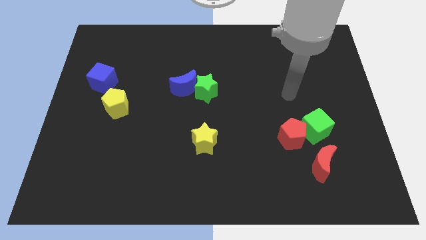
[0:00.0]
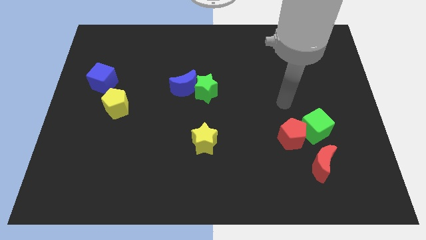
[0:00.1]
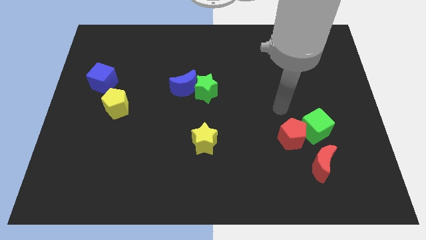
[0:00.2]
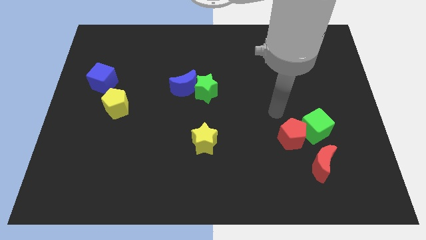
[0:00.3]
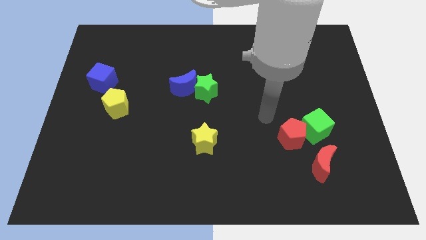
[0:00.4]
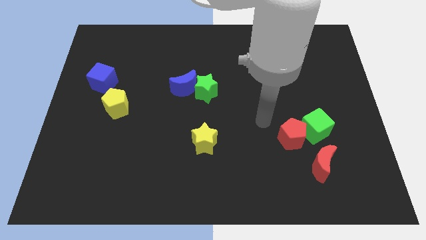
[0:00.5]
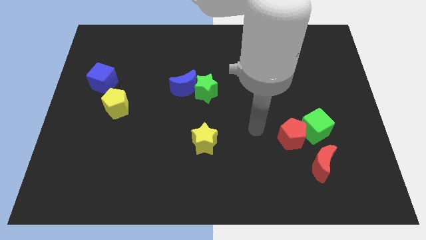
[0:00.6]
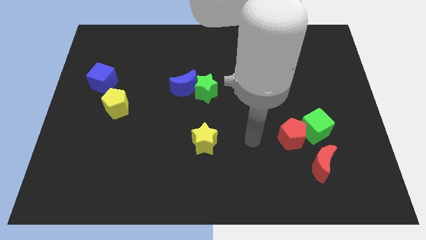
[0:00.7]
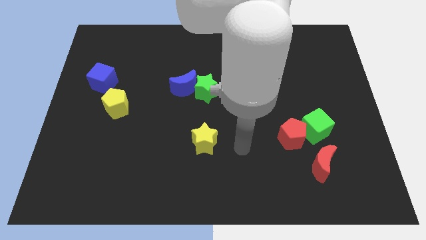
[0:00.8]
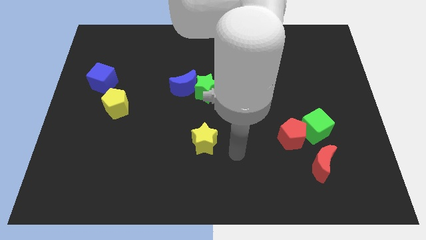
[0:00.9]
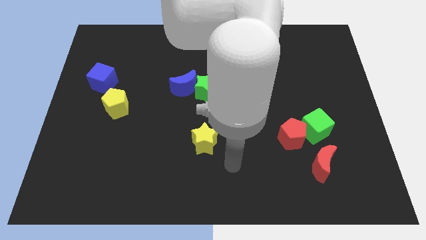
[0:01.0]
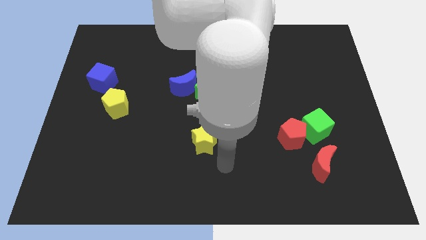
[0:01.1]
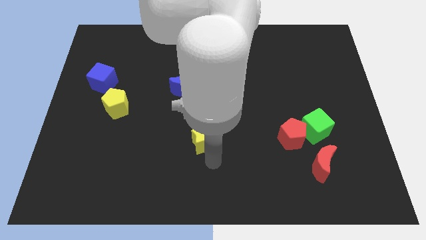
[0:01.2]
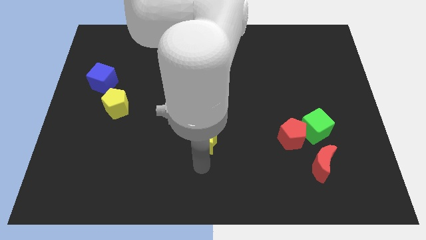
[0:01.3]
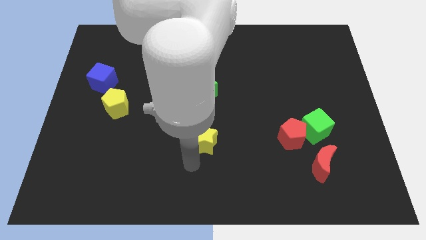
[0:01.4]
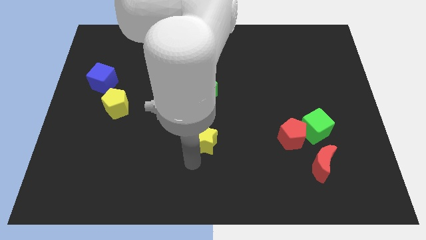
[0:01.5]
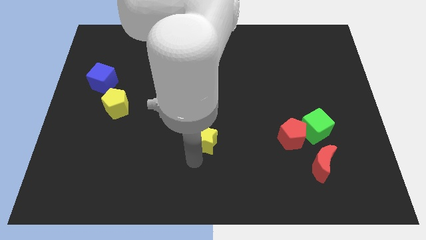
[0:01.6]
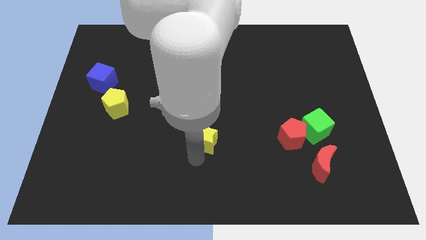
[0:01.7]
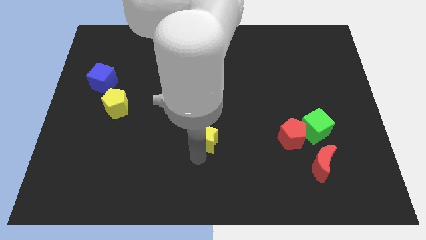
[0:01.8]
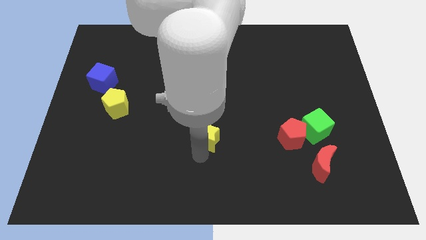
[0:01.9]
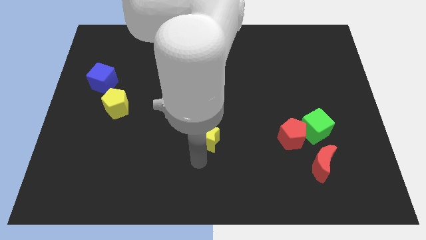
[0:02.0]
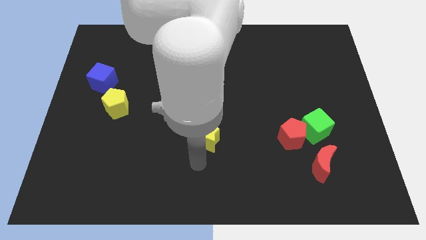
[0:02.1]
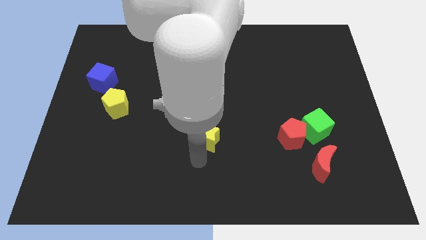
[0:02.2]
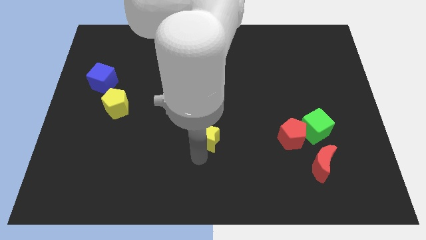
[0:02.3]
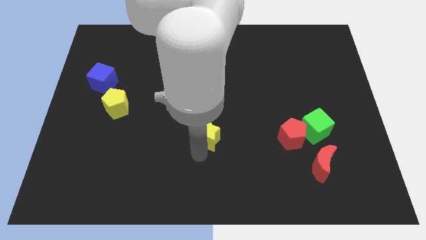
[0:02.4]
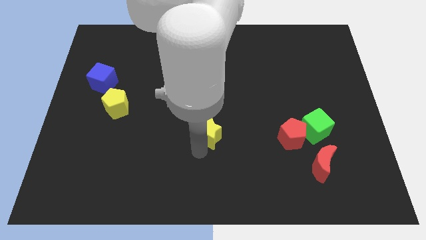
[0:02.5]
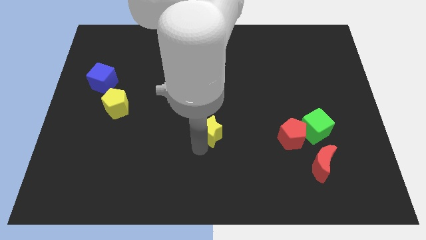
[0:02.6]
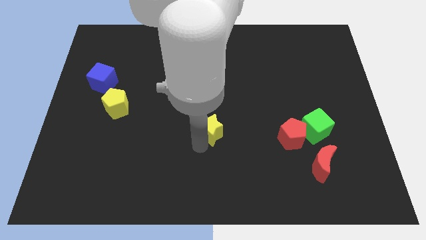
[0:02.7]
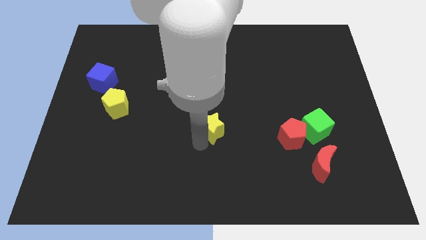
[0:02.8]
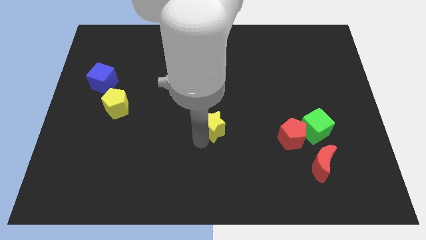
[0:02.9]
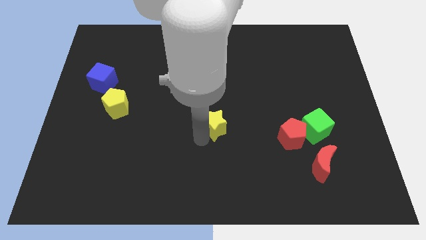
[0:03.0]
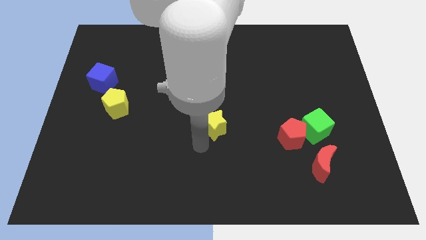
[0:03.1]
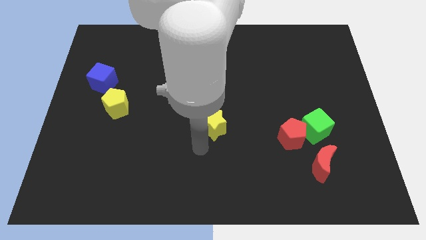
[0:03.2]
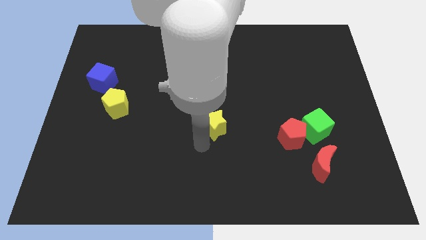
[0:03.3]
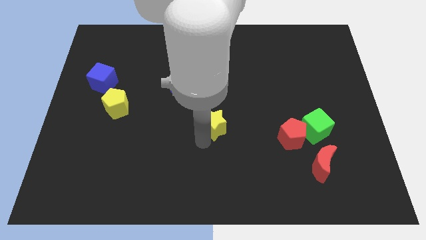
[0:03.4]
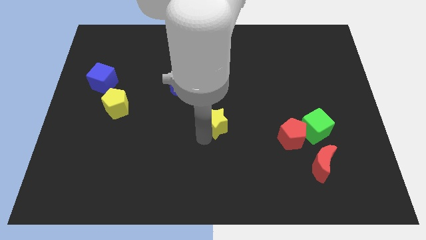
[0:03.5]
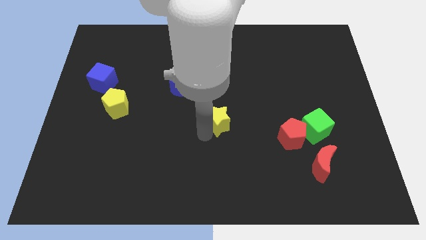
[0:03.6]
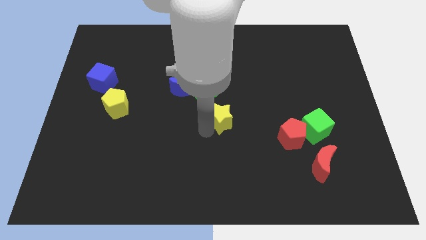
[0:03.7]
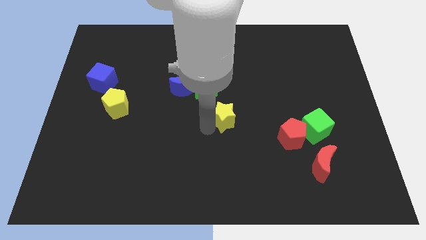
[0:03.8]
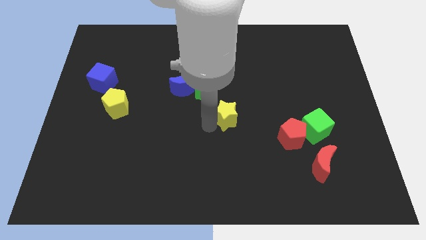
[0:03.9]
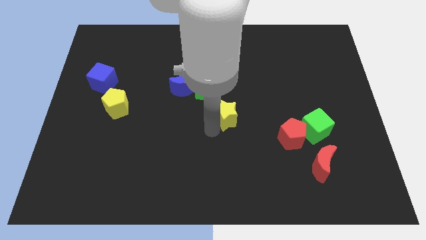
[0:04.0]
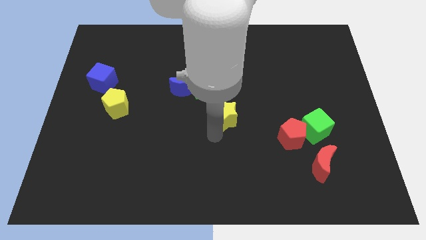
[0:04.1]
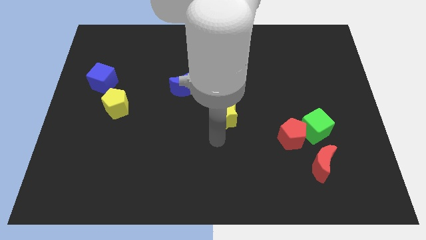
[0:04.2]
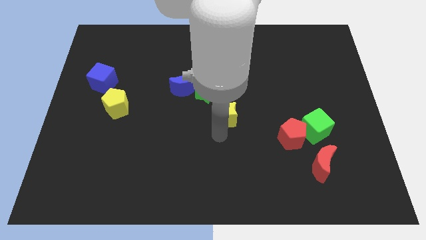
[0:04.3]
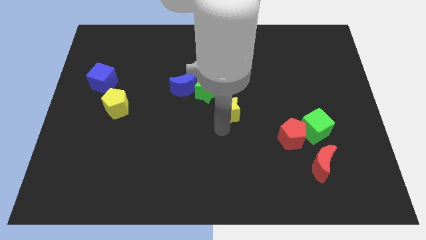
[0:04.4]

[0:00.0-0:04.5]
push the yellow star somewhat upwards

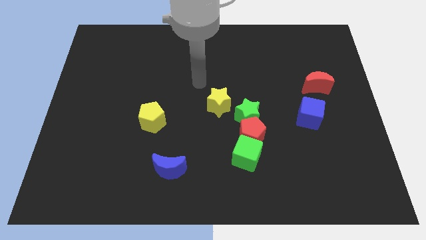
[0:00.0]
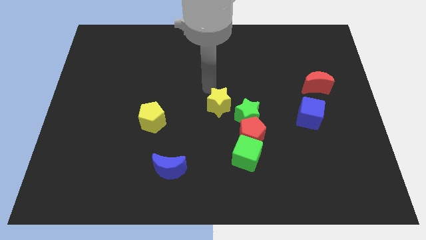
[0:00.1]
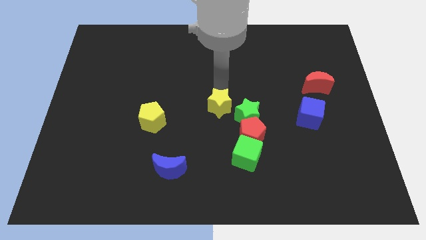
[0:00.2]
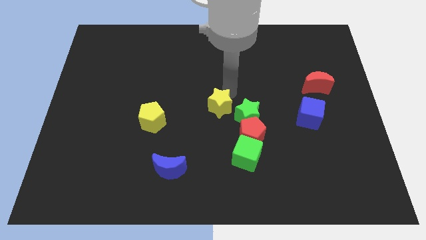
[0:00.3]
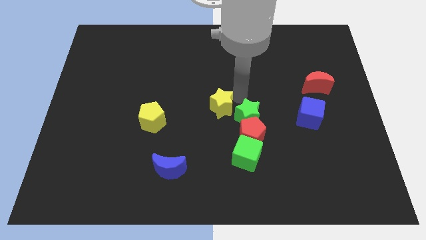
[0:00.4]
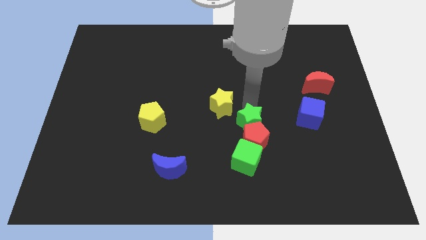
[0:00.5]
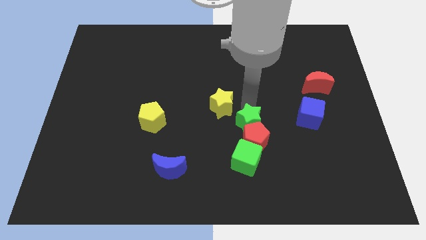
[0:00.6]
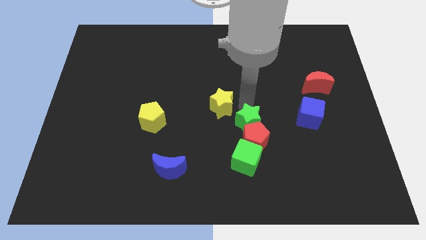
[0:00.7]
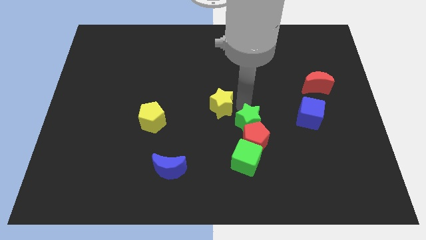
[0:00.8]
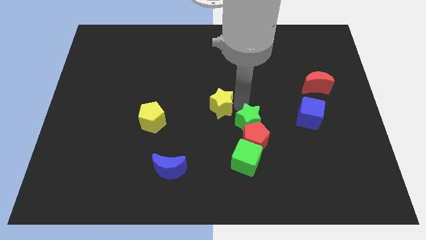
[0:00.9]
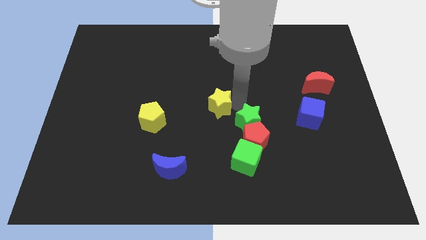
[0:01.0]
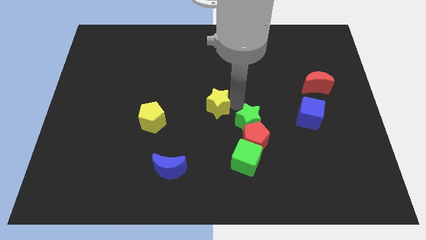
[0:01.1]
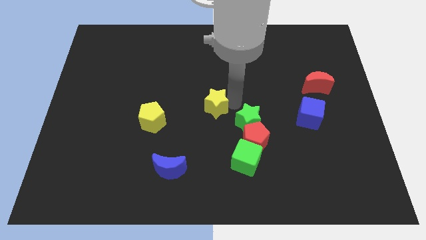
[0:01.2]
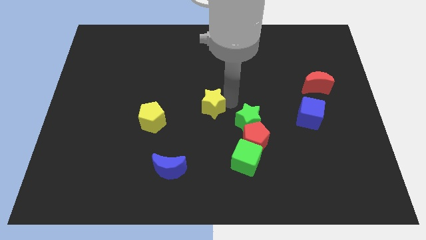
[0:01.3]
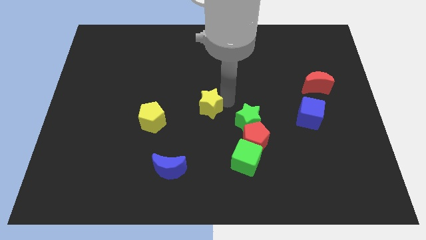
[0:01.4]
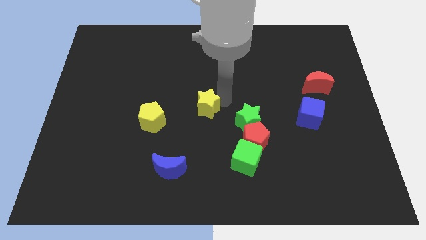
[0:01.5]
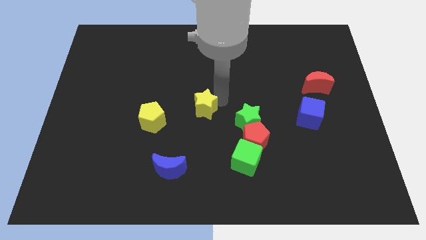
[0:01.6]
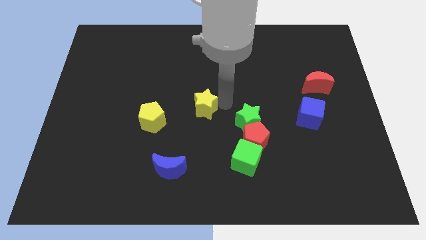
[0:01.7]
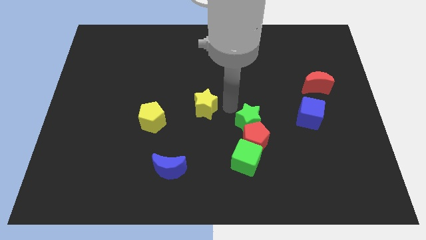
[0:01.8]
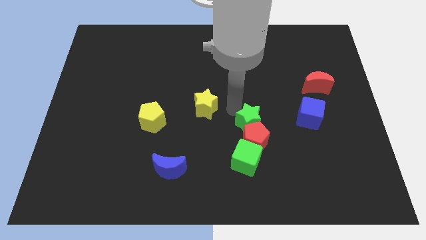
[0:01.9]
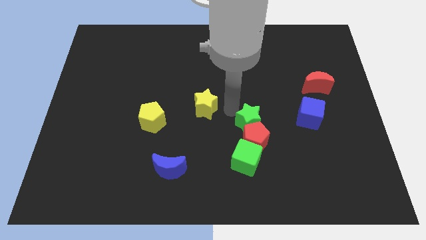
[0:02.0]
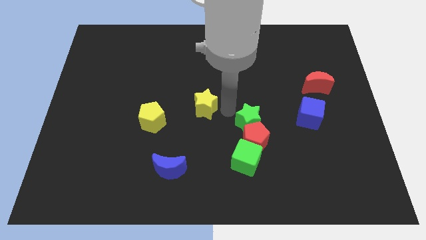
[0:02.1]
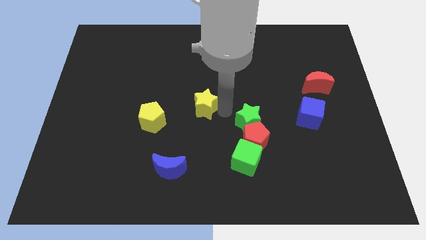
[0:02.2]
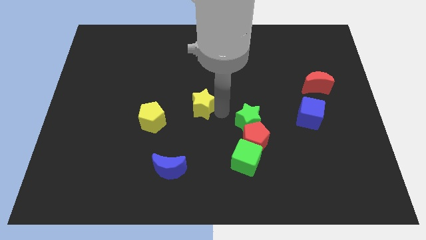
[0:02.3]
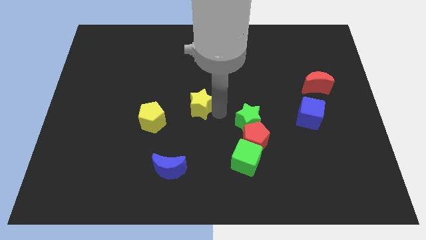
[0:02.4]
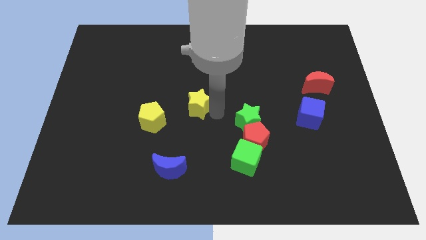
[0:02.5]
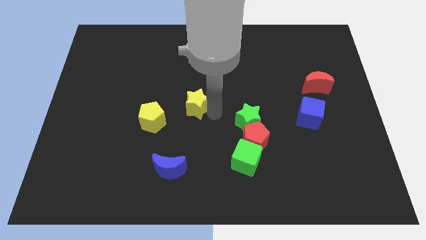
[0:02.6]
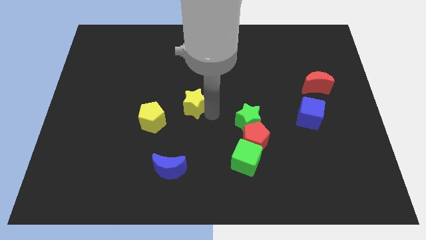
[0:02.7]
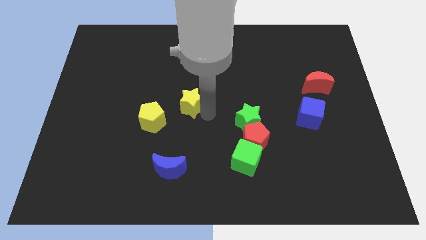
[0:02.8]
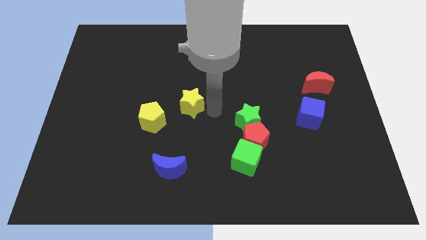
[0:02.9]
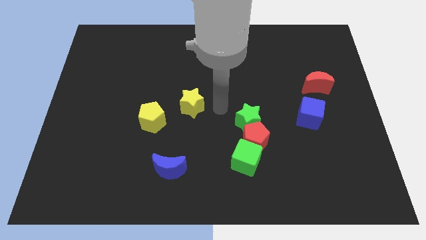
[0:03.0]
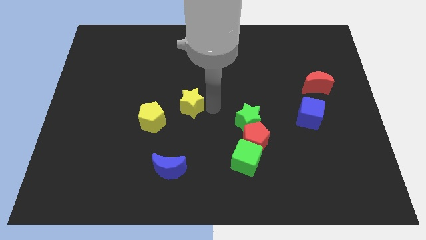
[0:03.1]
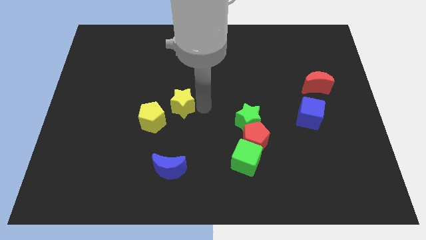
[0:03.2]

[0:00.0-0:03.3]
slide the yellow star slightly left

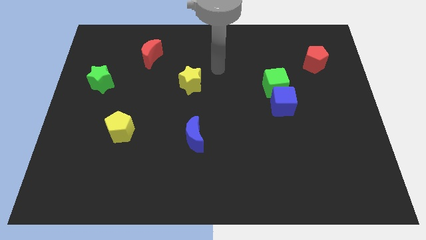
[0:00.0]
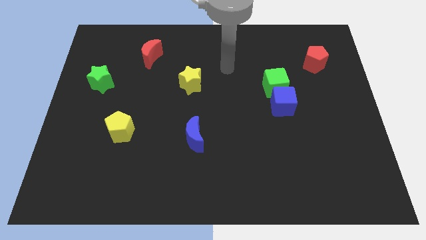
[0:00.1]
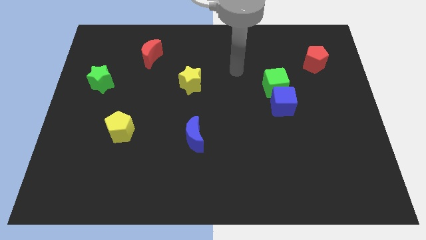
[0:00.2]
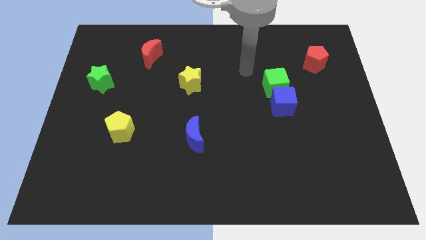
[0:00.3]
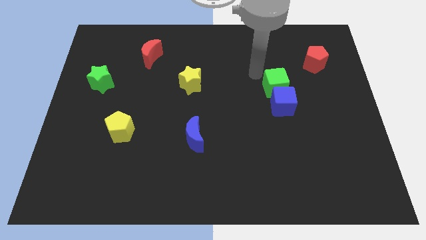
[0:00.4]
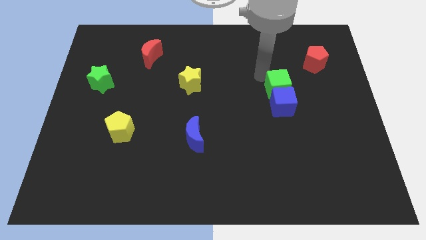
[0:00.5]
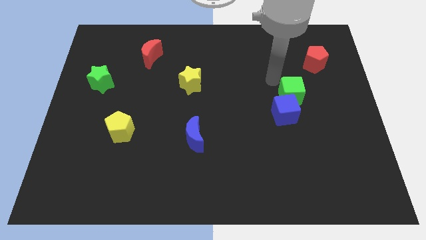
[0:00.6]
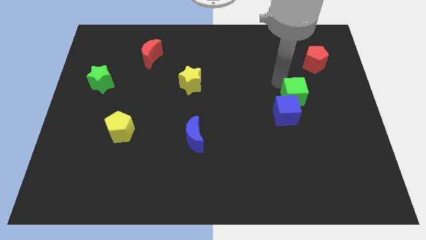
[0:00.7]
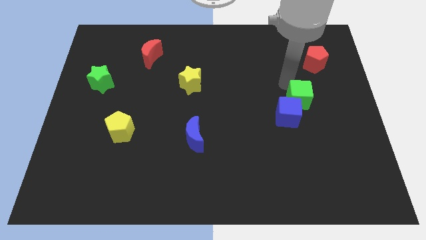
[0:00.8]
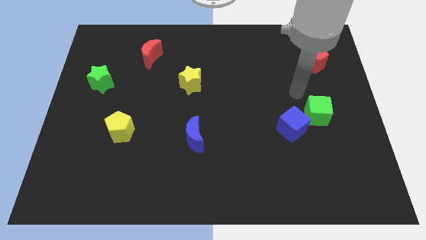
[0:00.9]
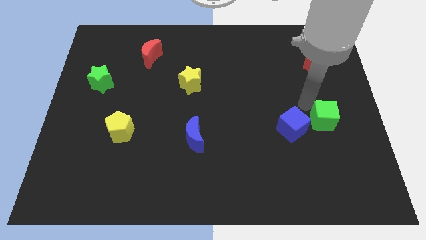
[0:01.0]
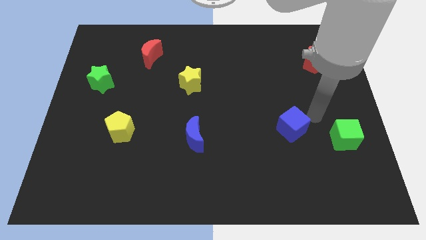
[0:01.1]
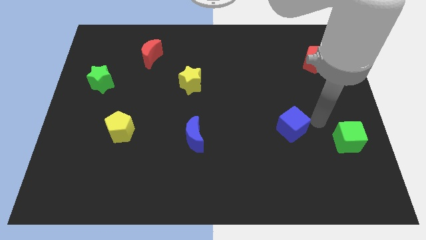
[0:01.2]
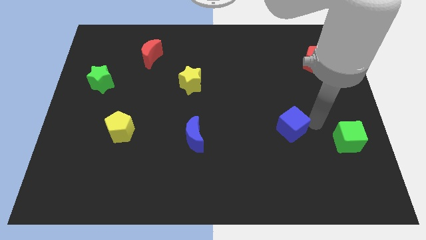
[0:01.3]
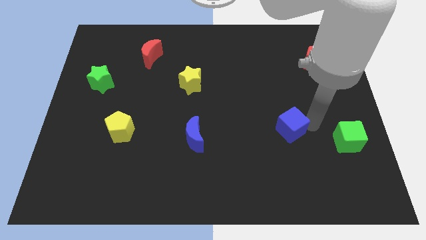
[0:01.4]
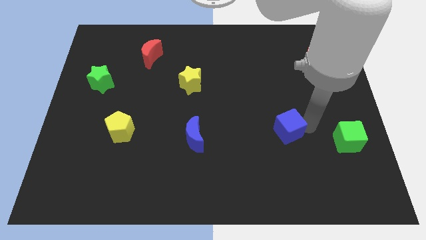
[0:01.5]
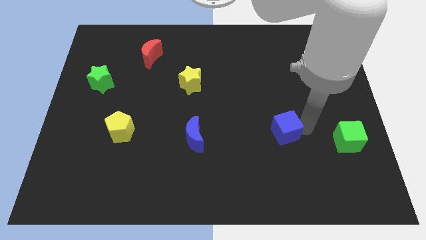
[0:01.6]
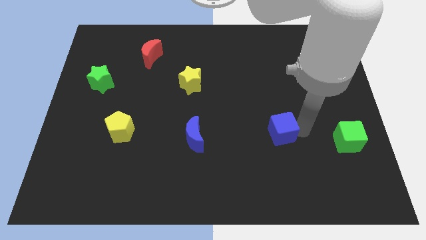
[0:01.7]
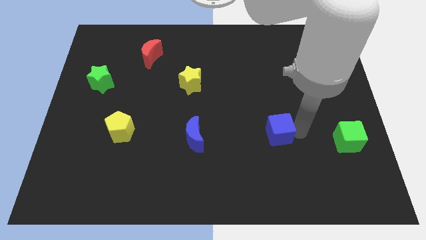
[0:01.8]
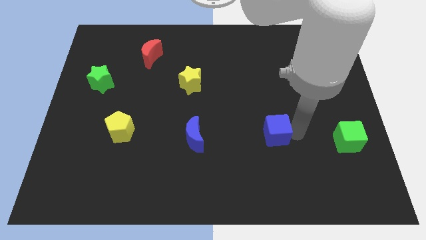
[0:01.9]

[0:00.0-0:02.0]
slightly push the blue cube diagonally downwards and to the left
